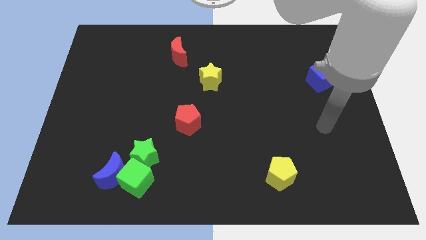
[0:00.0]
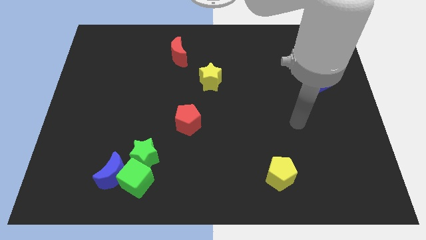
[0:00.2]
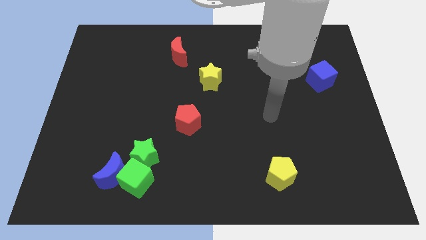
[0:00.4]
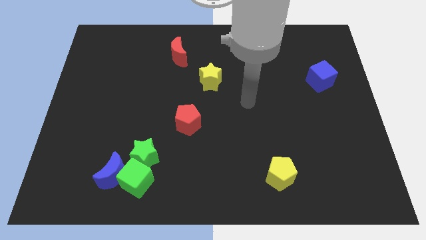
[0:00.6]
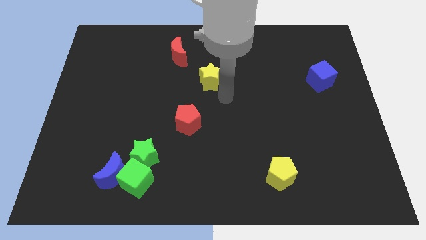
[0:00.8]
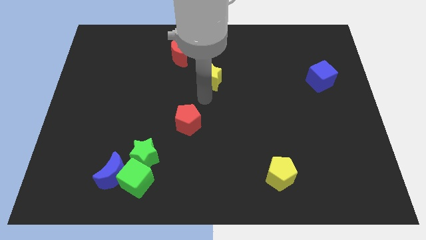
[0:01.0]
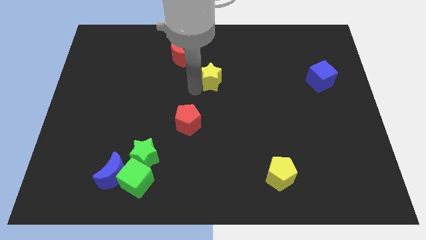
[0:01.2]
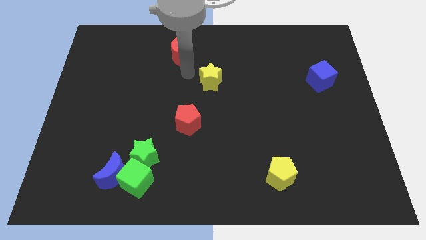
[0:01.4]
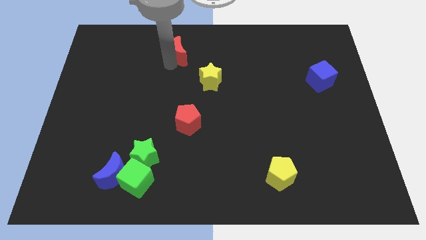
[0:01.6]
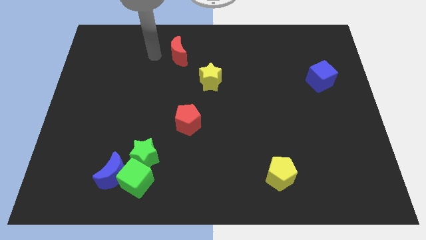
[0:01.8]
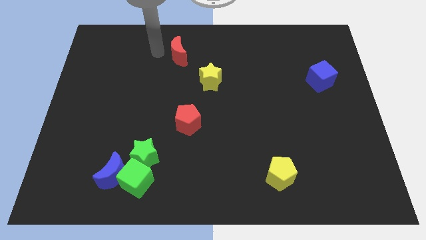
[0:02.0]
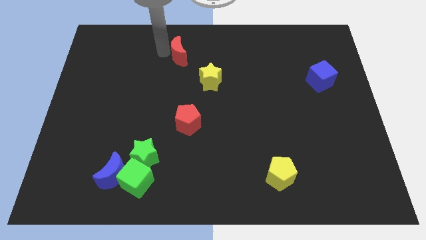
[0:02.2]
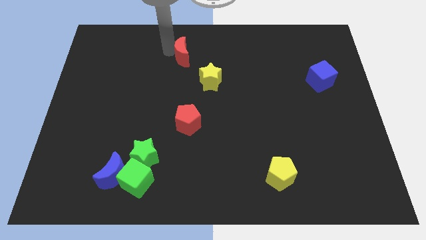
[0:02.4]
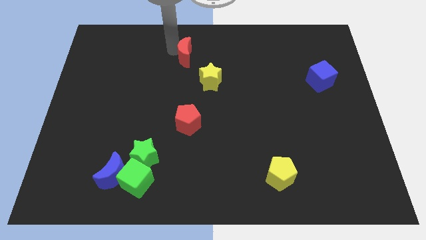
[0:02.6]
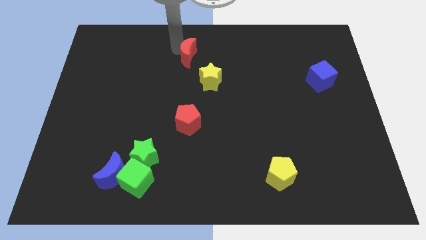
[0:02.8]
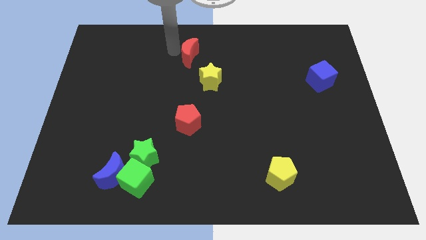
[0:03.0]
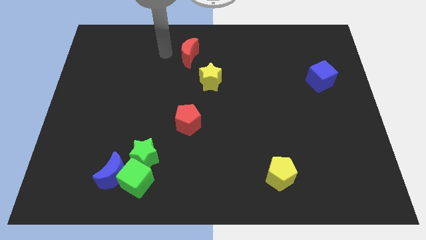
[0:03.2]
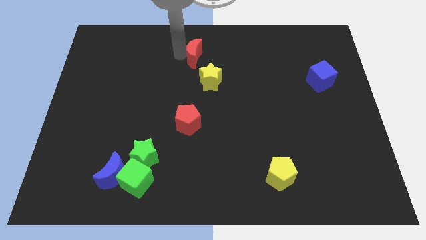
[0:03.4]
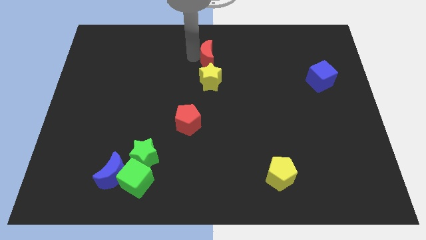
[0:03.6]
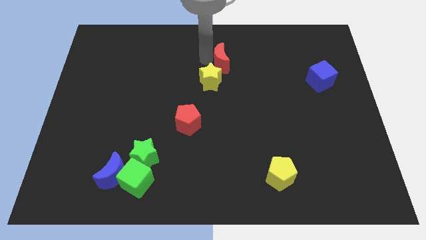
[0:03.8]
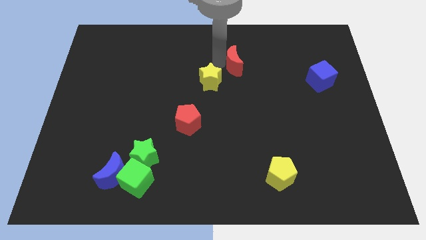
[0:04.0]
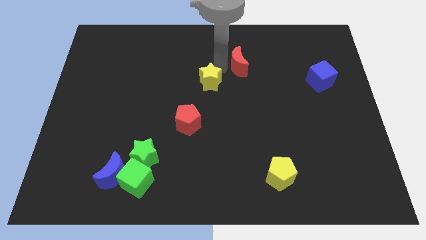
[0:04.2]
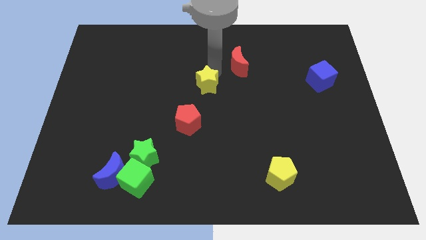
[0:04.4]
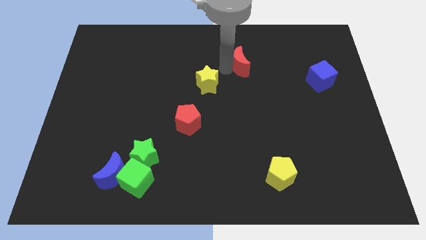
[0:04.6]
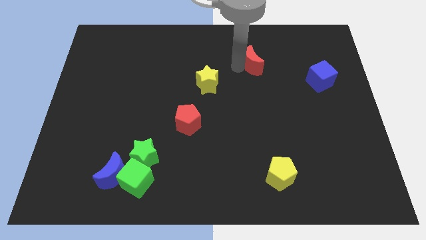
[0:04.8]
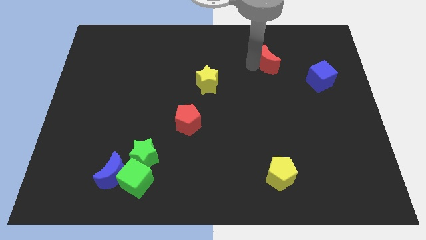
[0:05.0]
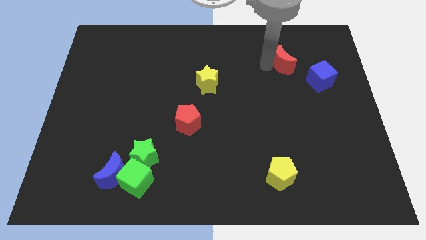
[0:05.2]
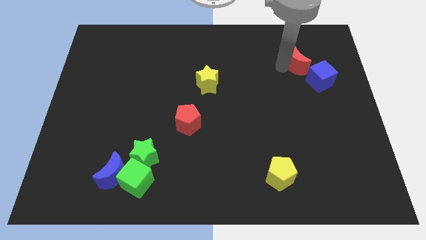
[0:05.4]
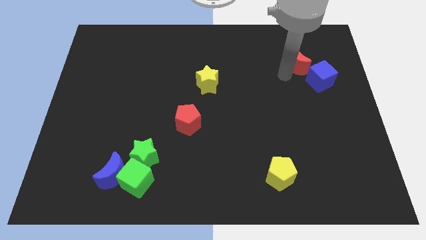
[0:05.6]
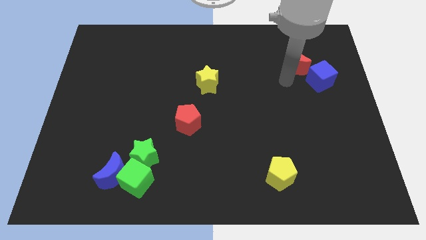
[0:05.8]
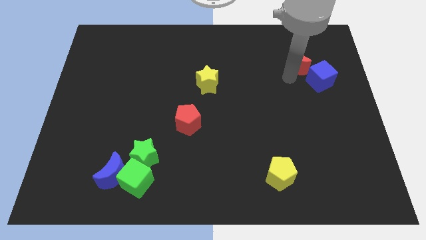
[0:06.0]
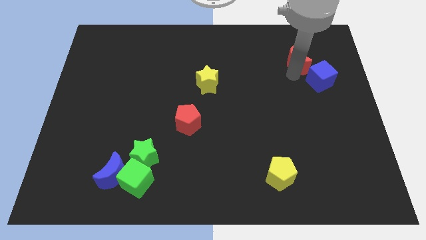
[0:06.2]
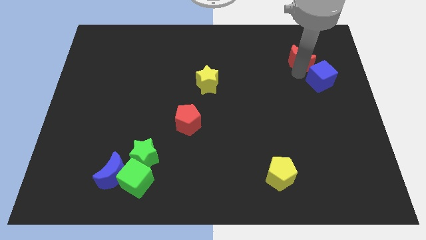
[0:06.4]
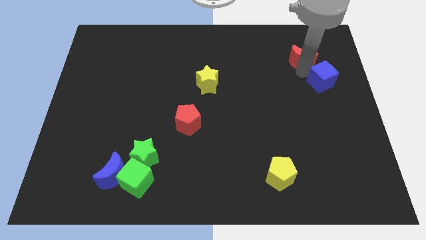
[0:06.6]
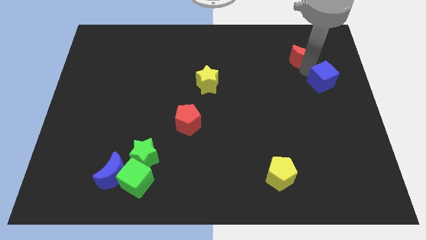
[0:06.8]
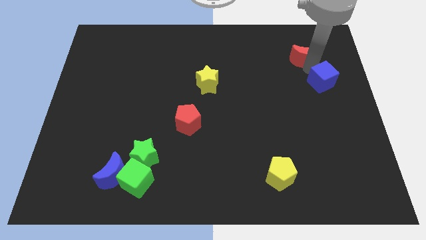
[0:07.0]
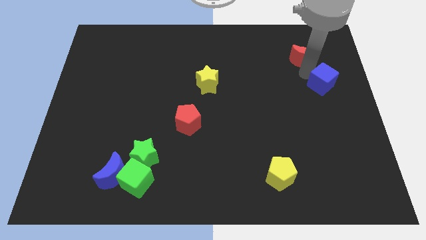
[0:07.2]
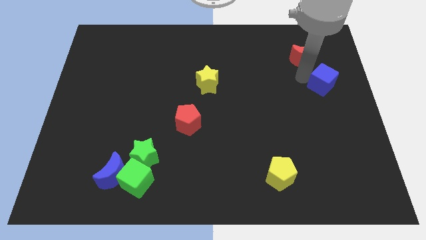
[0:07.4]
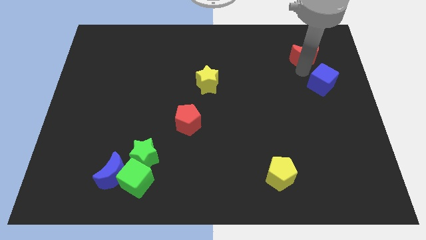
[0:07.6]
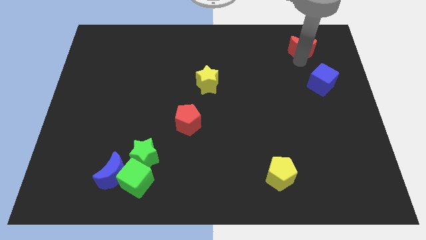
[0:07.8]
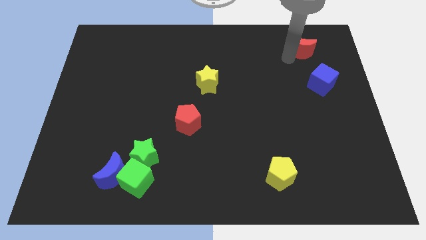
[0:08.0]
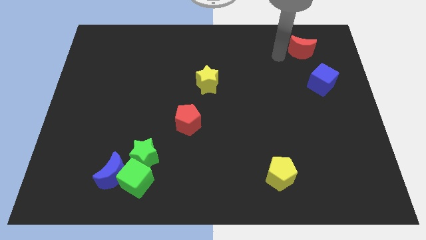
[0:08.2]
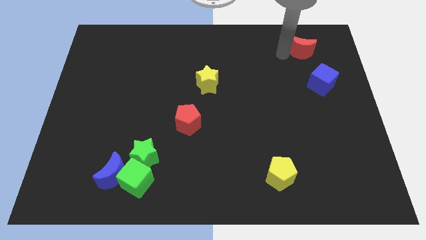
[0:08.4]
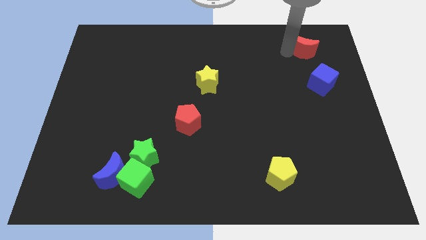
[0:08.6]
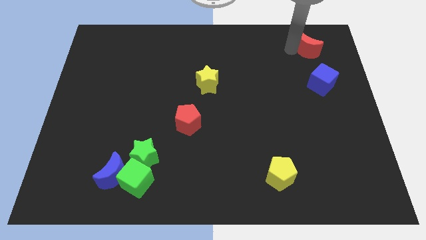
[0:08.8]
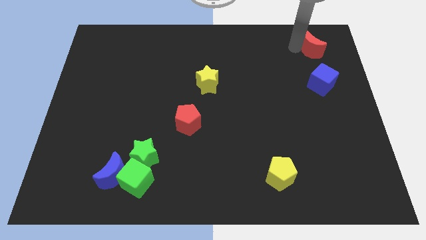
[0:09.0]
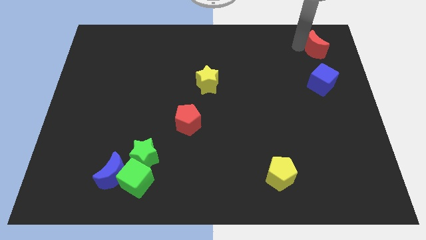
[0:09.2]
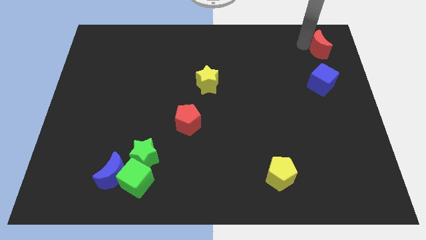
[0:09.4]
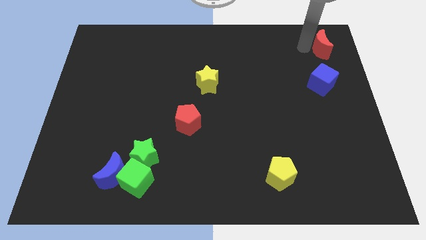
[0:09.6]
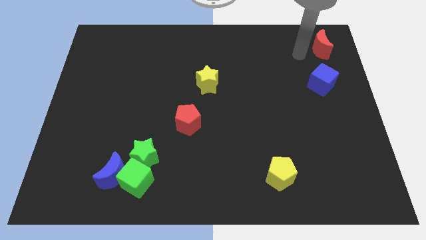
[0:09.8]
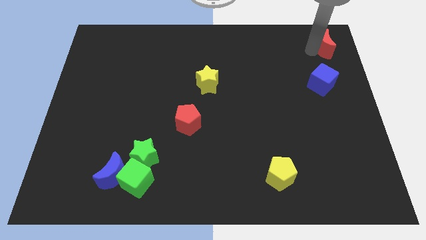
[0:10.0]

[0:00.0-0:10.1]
slide the red moon to the upper right corner

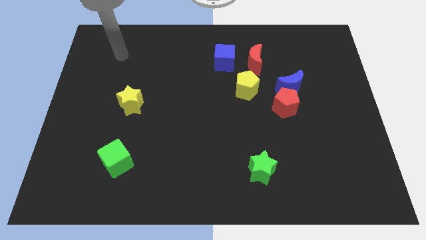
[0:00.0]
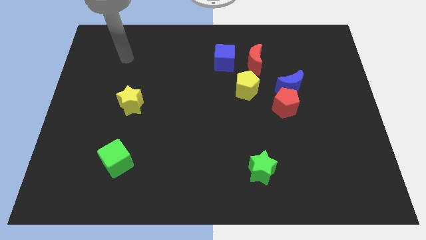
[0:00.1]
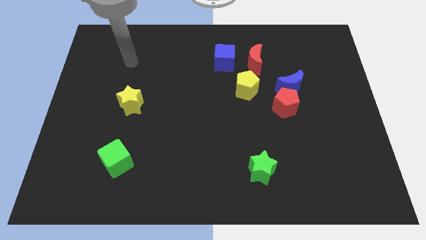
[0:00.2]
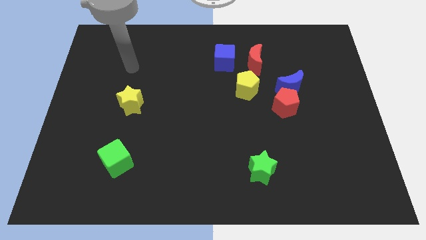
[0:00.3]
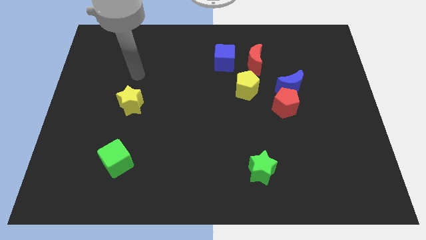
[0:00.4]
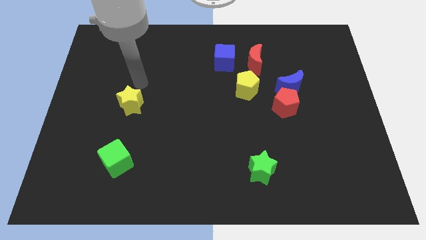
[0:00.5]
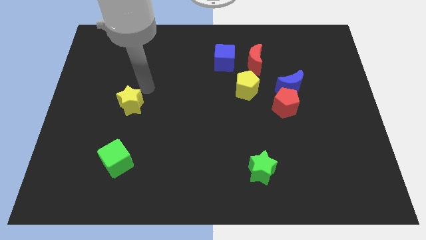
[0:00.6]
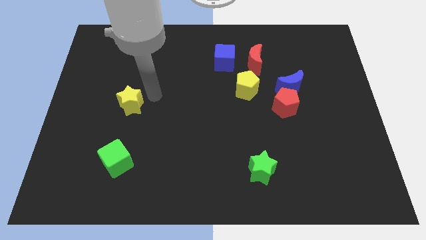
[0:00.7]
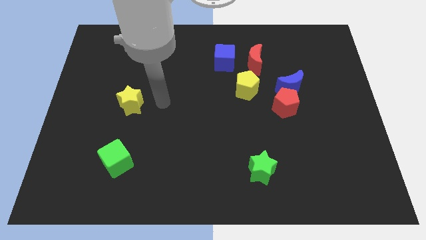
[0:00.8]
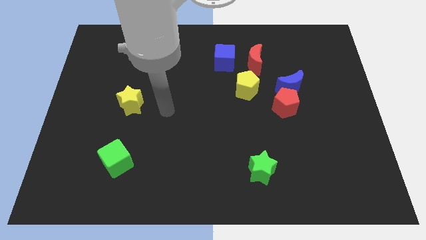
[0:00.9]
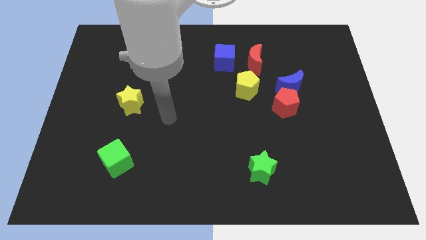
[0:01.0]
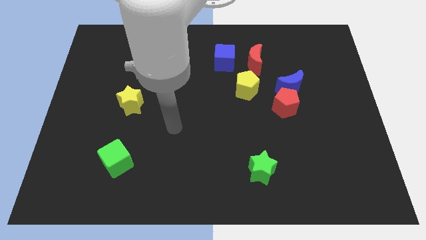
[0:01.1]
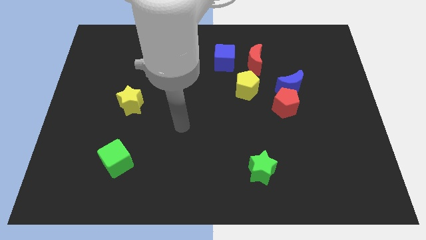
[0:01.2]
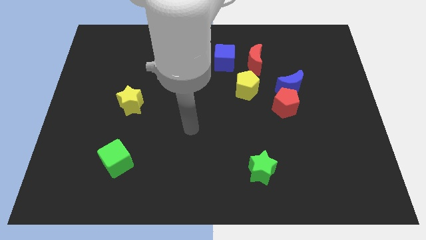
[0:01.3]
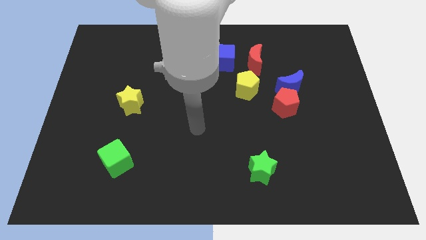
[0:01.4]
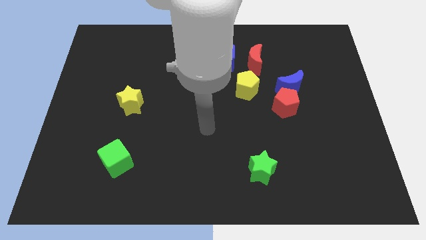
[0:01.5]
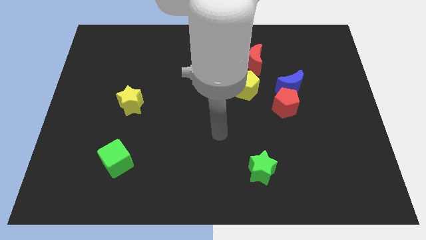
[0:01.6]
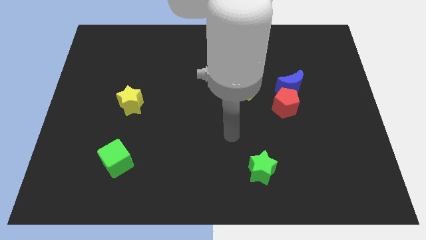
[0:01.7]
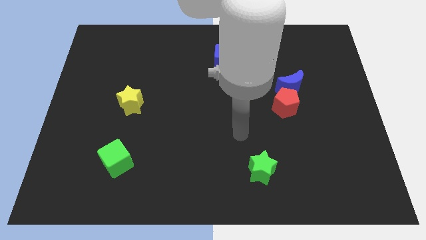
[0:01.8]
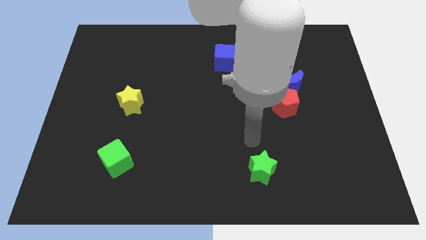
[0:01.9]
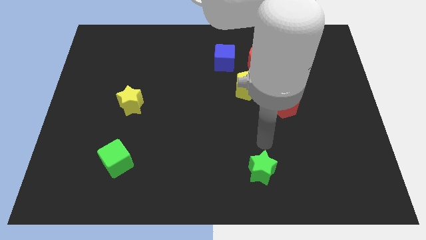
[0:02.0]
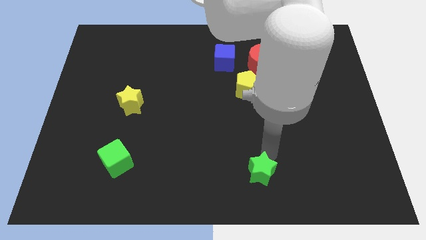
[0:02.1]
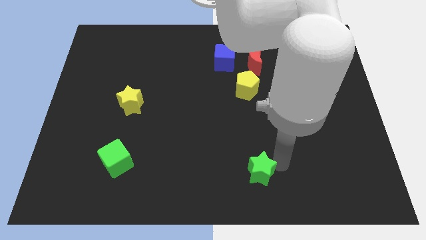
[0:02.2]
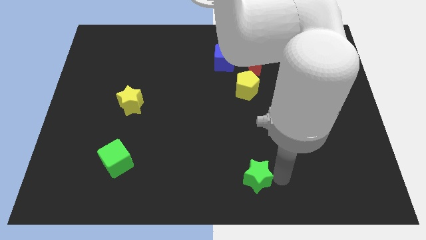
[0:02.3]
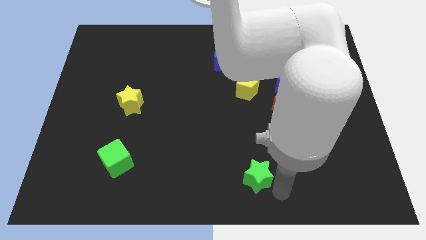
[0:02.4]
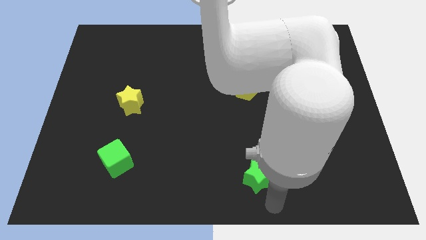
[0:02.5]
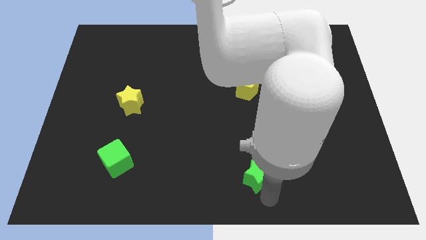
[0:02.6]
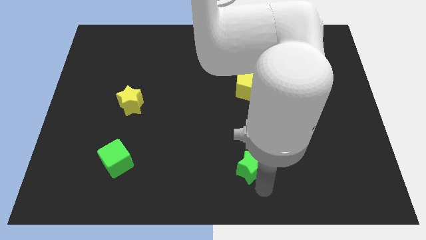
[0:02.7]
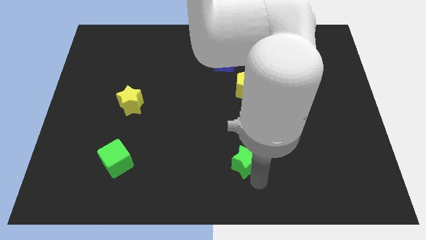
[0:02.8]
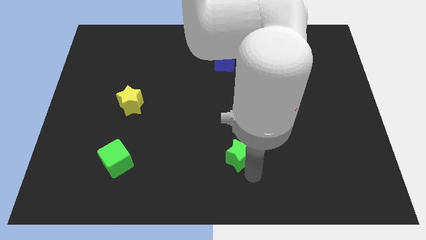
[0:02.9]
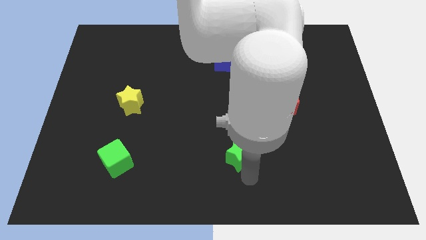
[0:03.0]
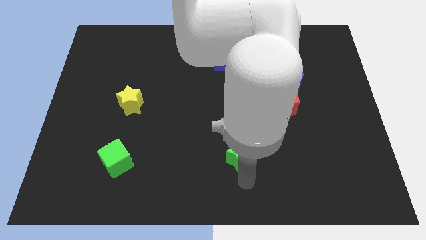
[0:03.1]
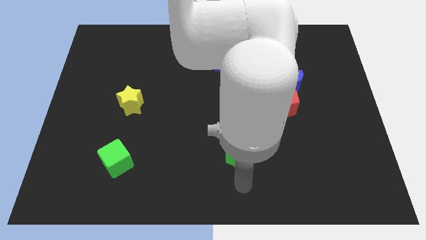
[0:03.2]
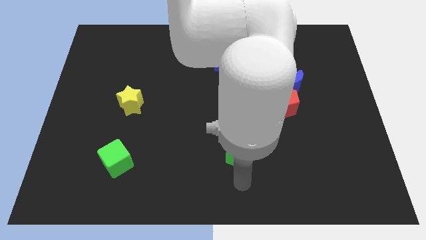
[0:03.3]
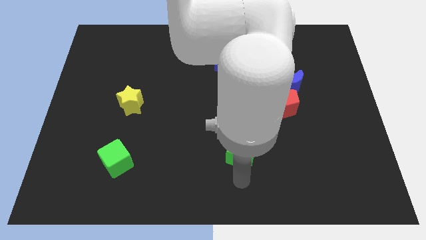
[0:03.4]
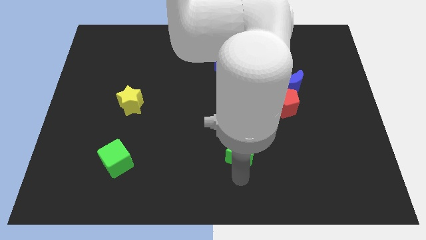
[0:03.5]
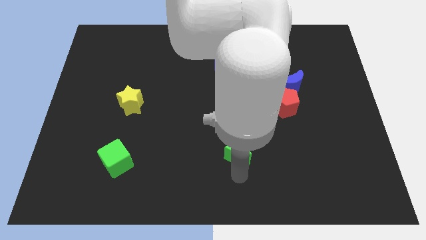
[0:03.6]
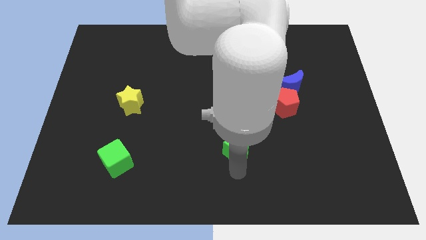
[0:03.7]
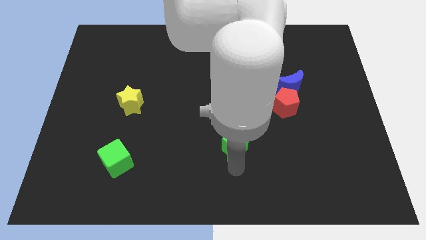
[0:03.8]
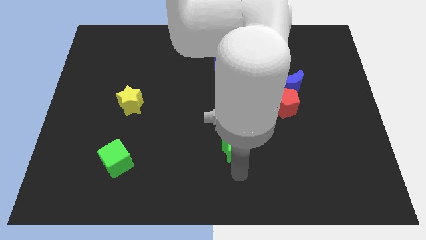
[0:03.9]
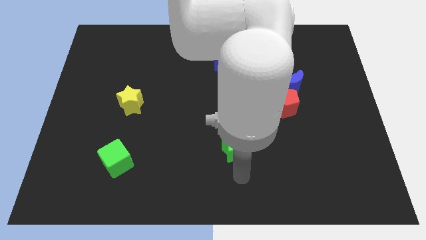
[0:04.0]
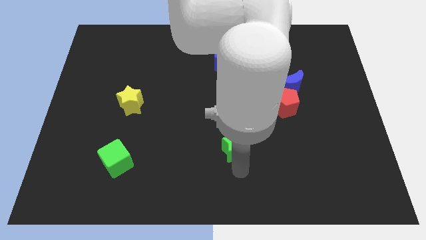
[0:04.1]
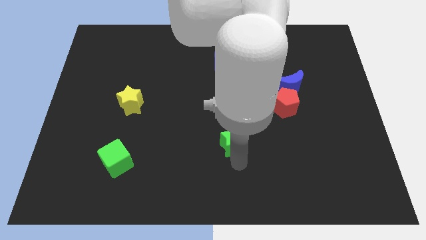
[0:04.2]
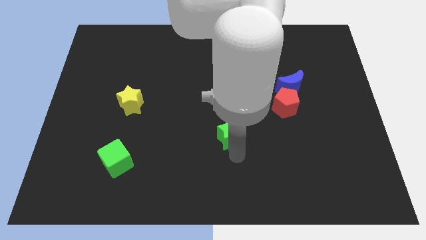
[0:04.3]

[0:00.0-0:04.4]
put the green star to the center of the board
